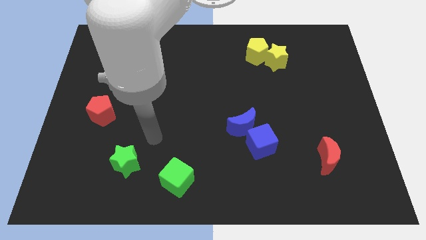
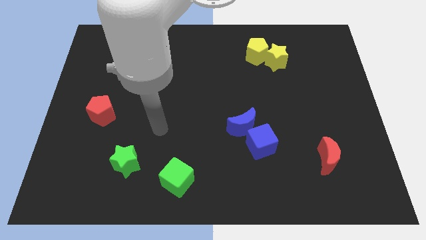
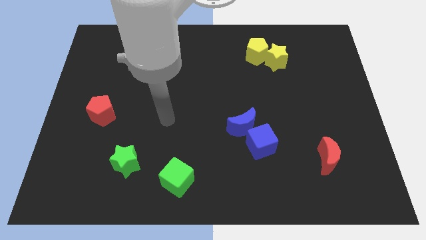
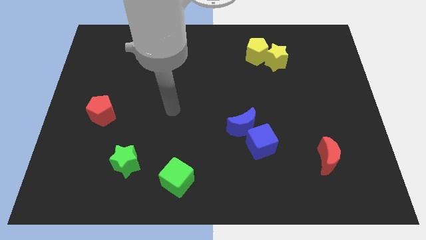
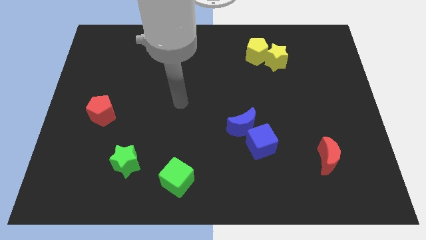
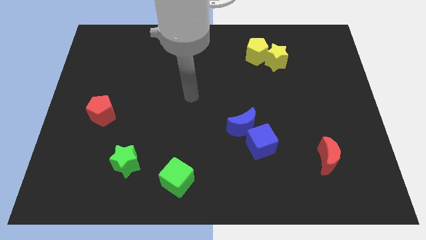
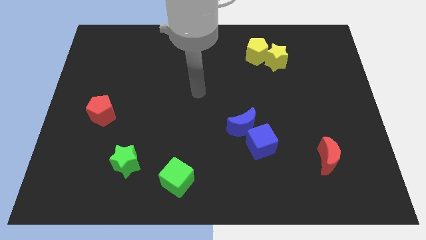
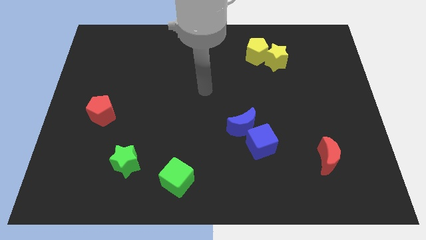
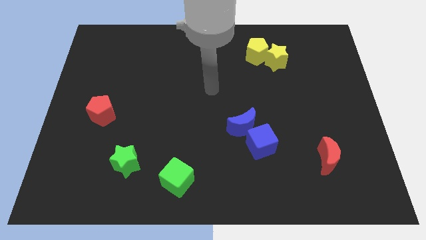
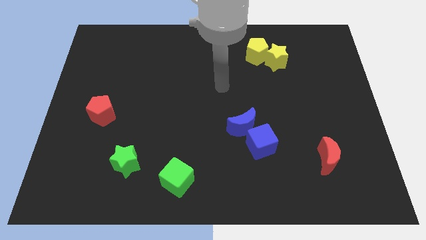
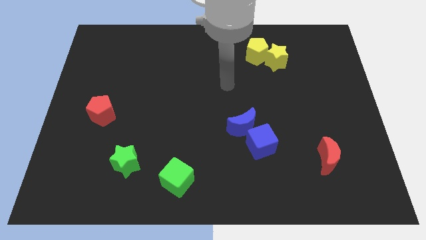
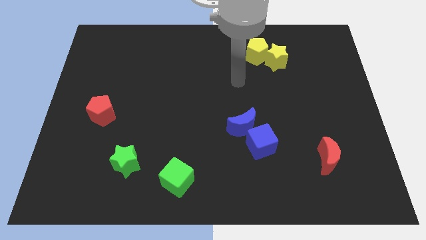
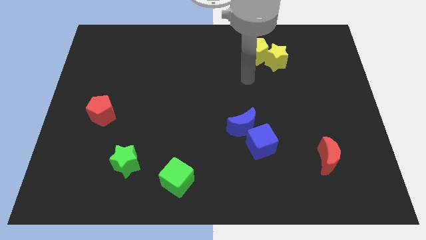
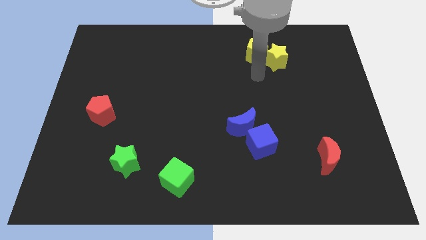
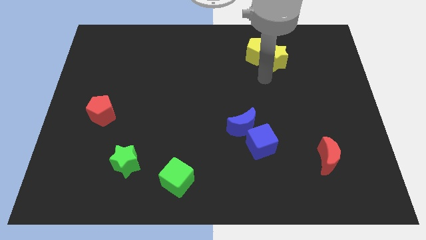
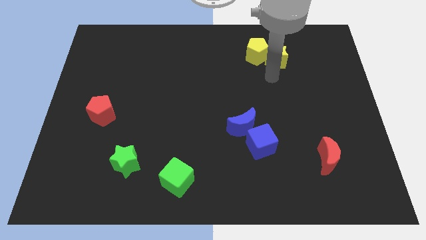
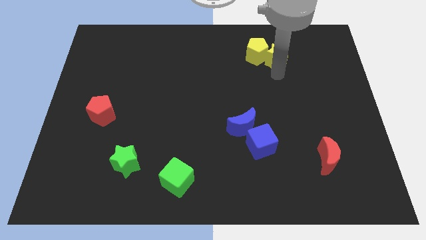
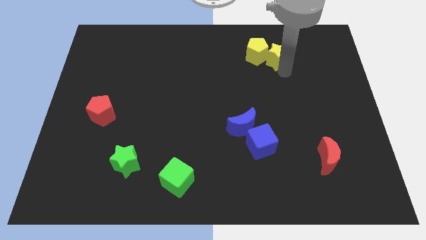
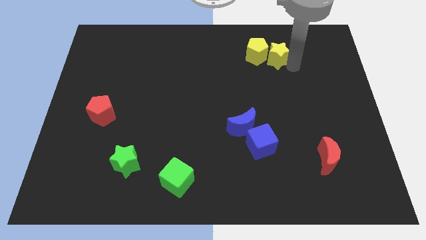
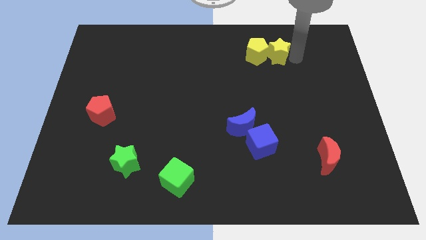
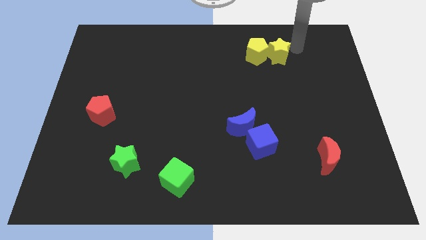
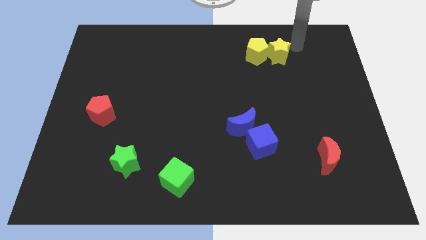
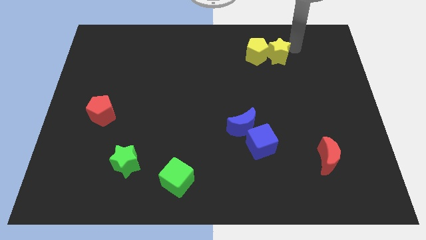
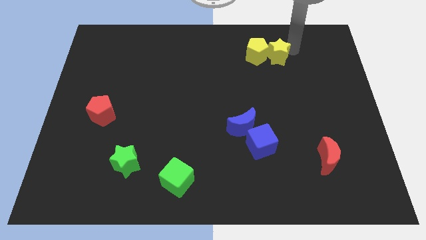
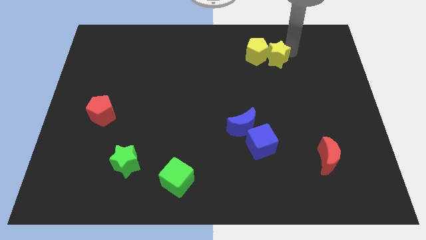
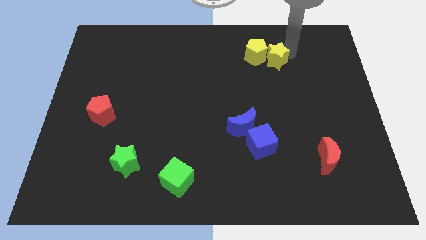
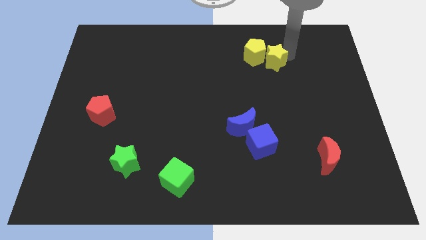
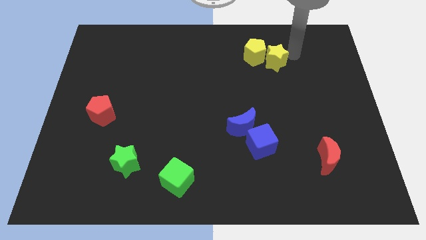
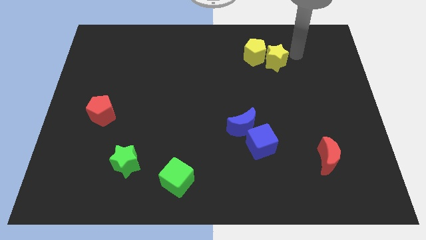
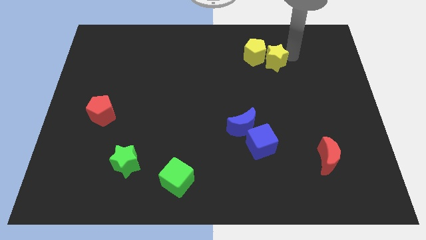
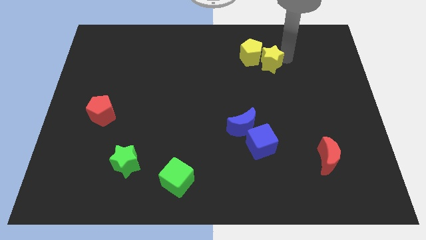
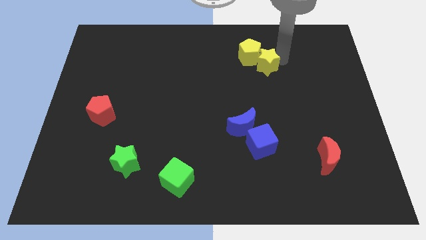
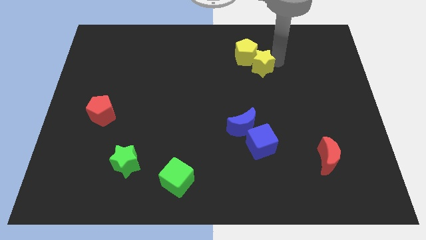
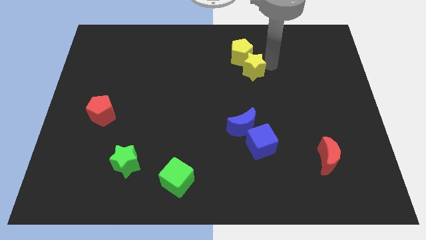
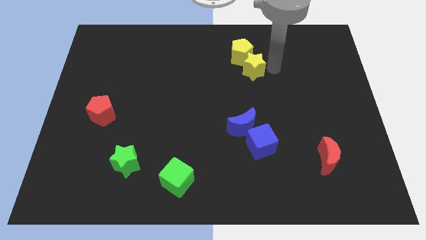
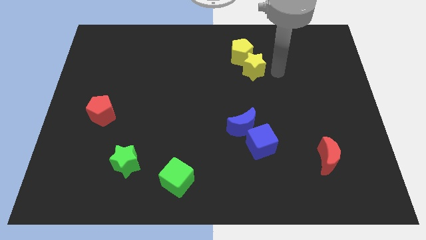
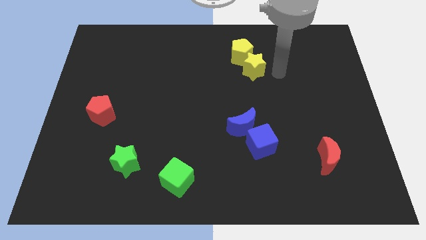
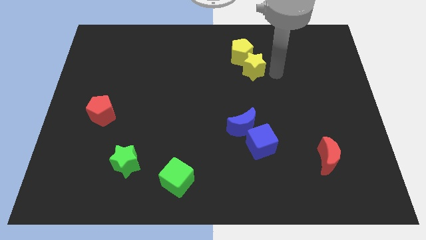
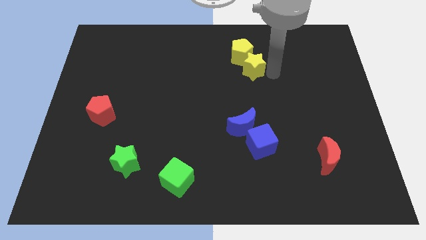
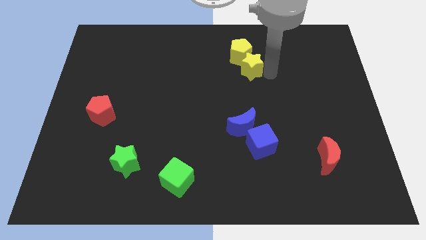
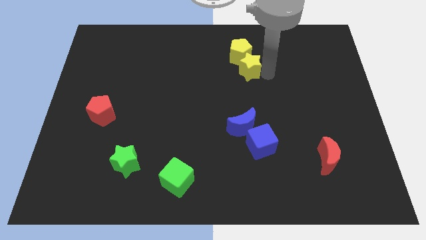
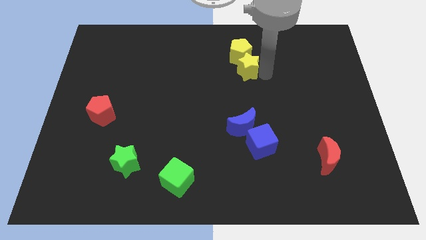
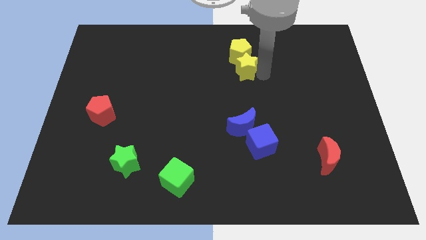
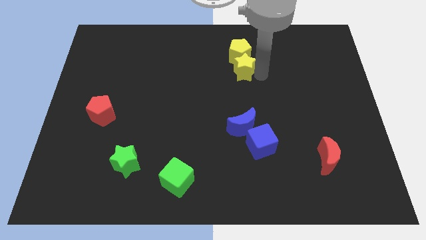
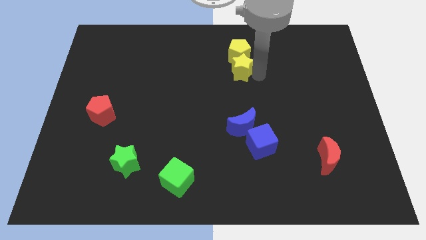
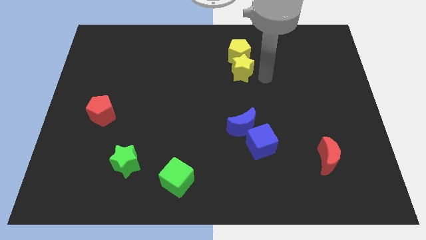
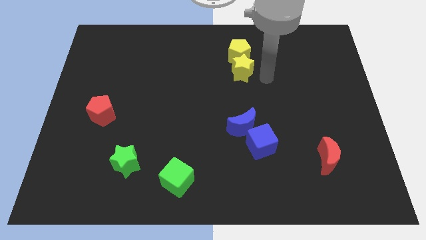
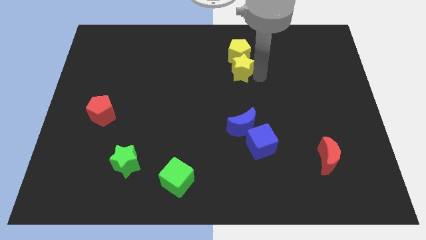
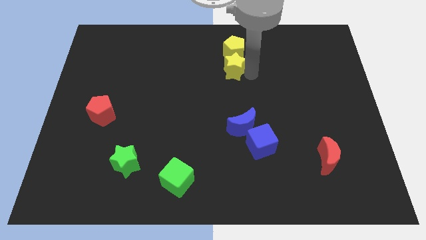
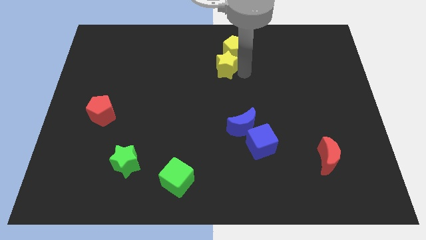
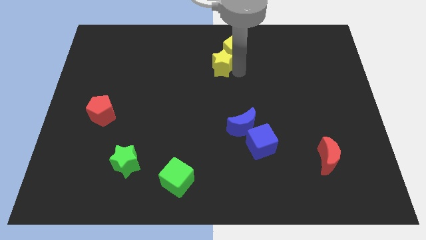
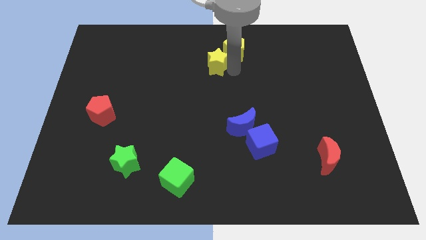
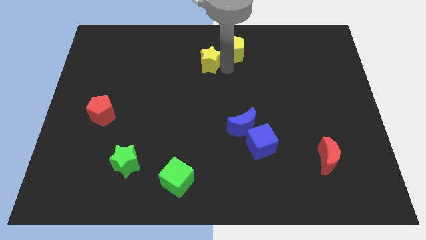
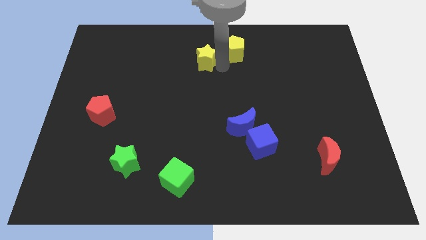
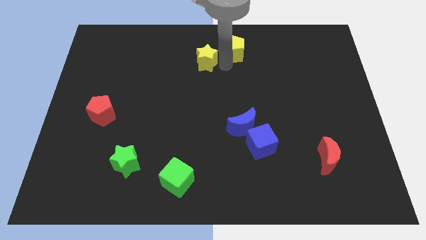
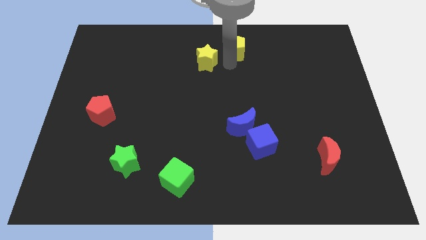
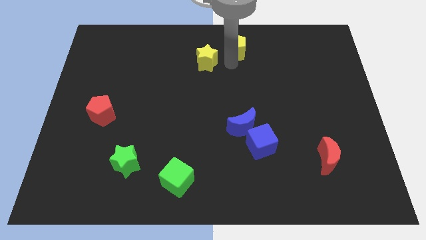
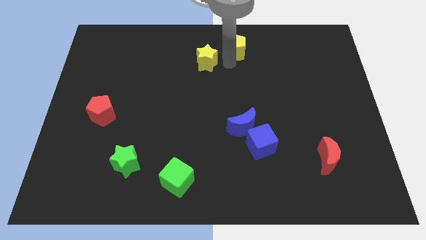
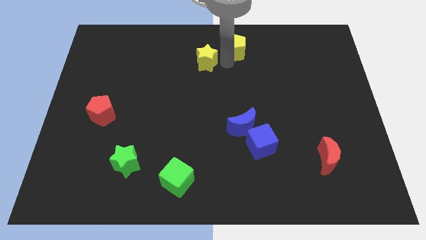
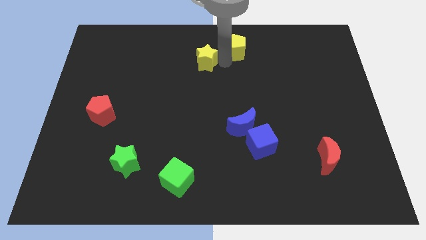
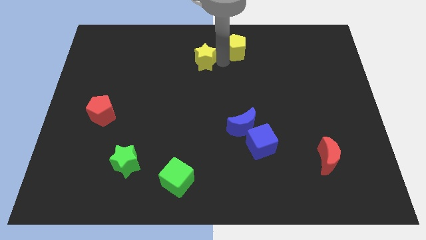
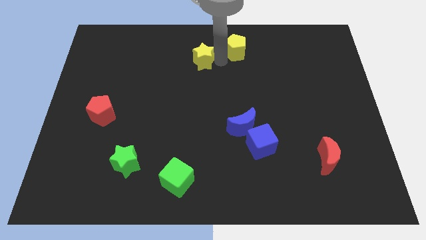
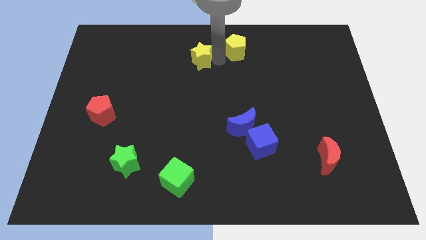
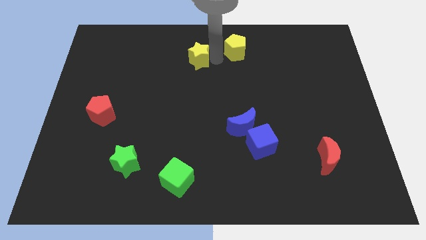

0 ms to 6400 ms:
slide the yellow star left

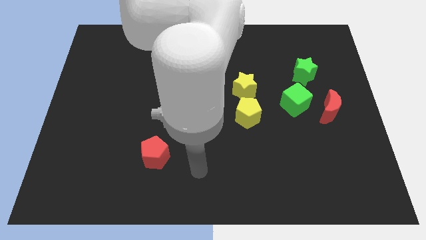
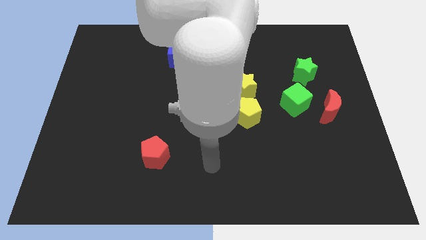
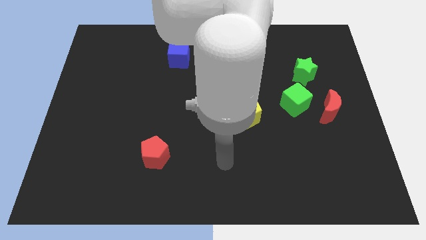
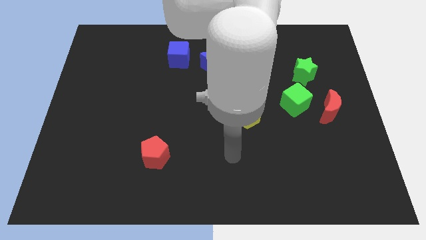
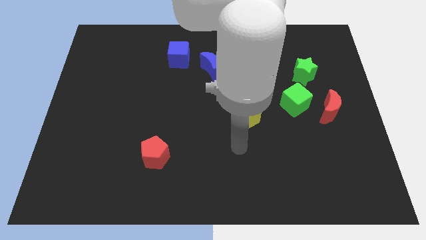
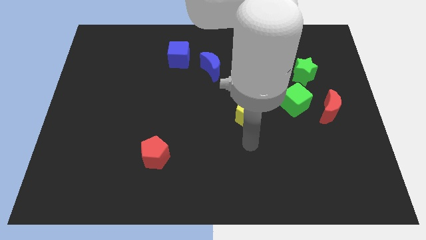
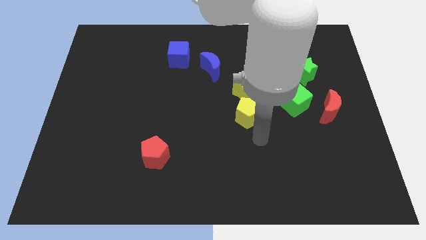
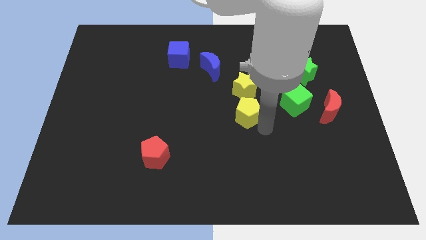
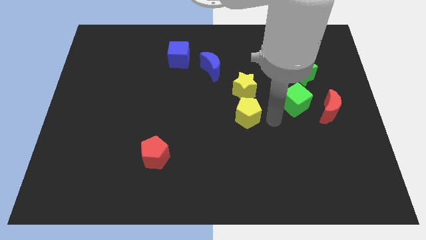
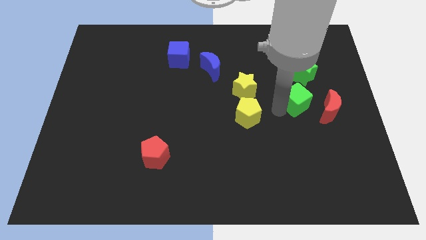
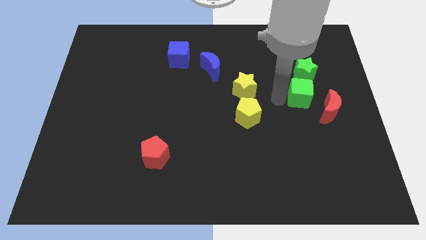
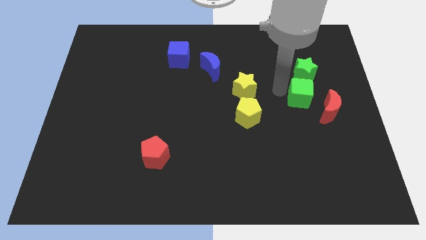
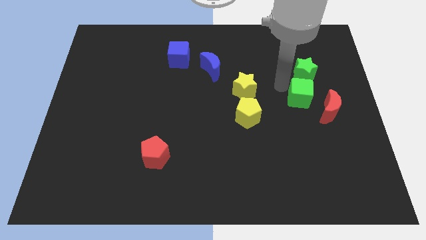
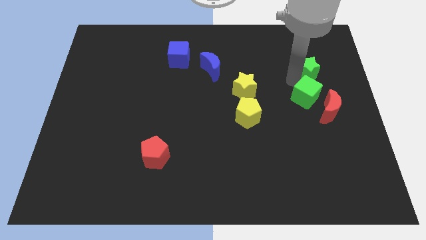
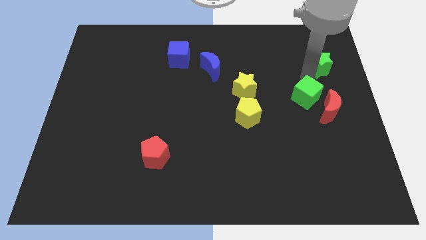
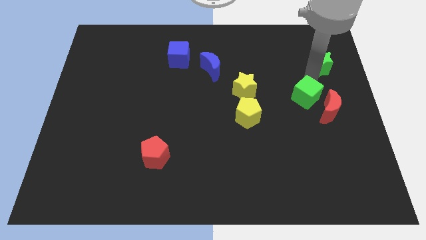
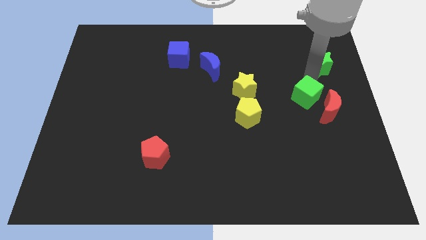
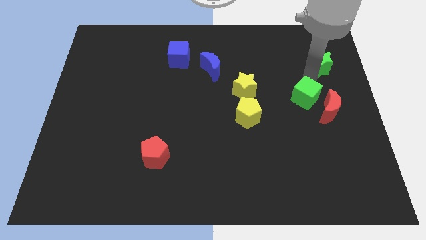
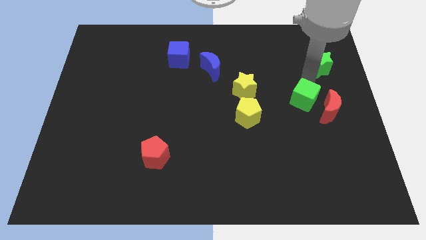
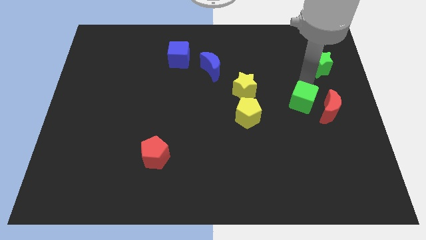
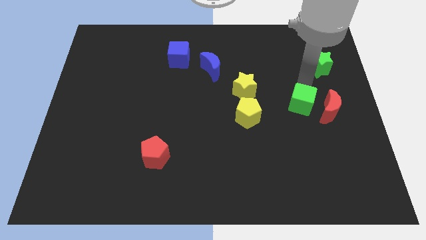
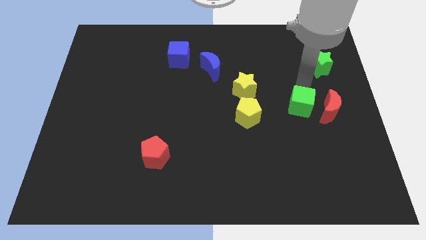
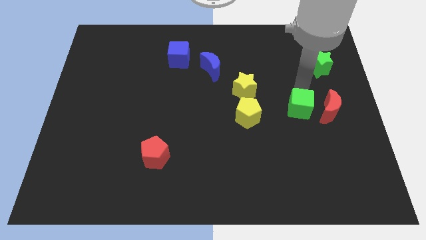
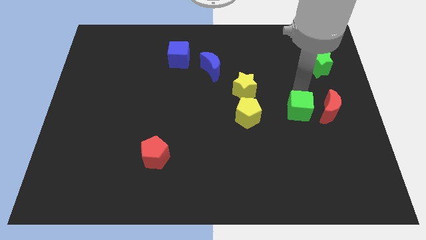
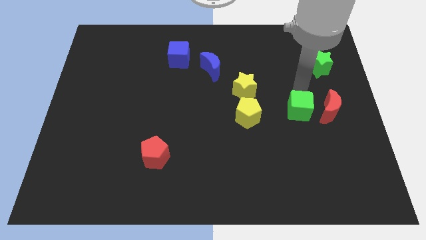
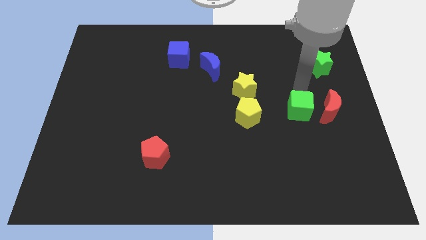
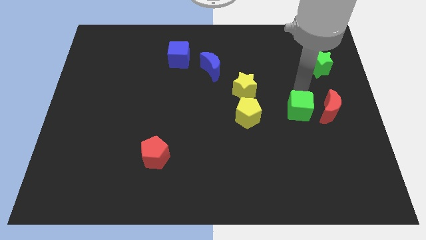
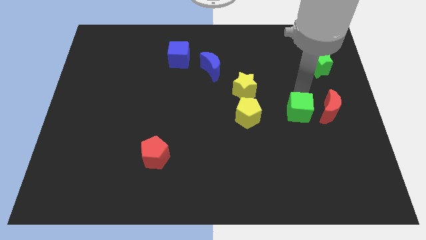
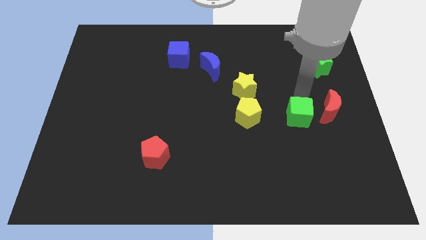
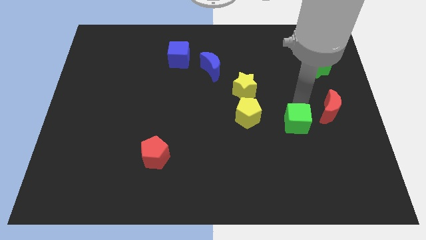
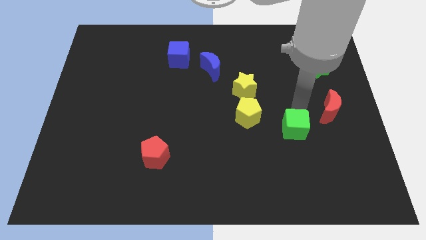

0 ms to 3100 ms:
slightly move the green cube downwards
